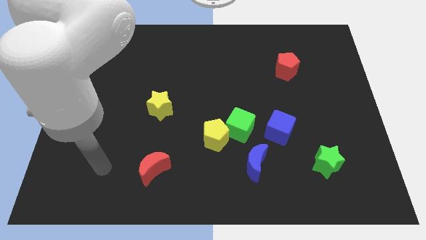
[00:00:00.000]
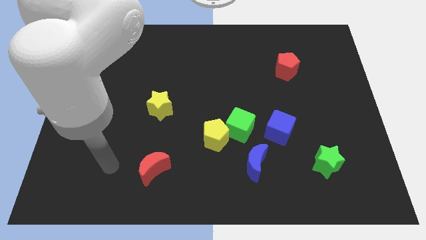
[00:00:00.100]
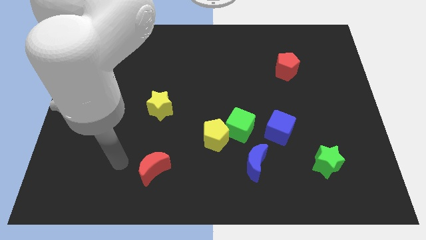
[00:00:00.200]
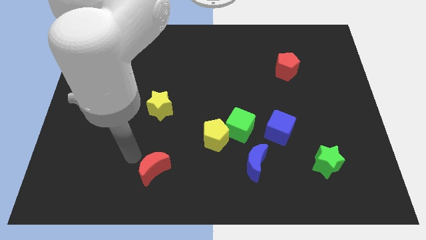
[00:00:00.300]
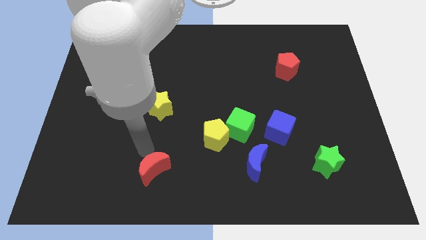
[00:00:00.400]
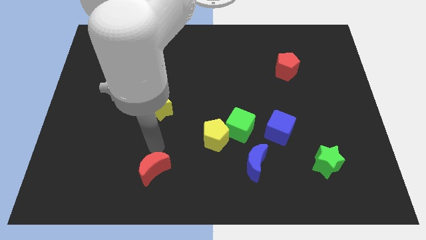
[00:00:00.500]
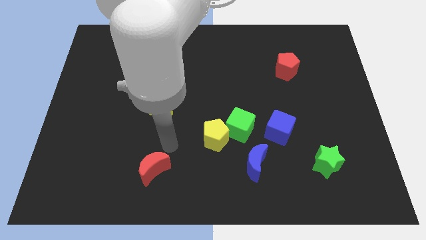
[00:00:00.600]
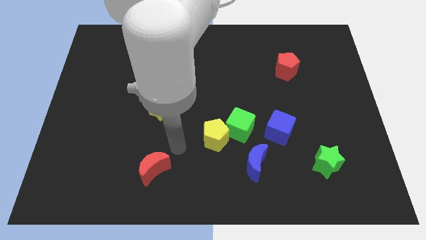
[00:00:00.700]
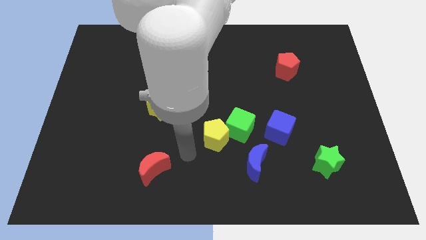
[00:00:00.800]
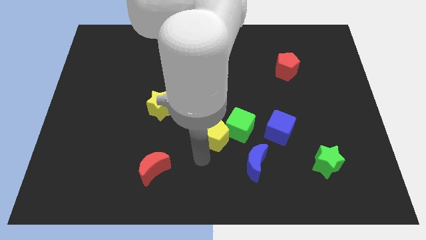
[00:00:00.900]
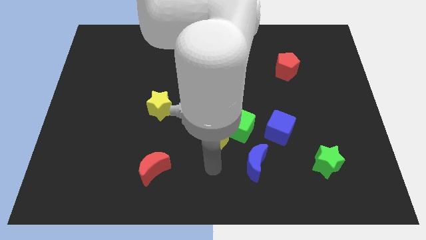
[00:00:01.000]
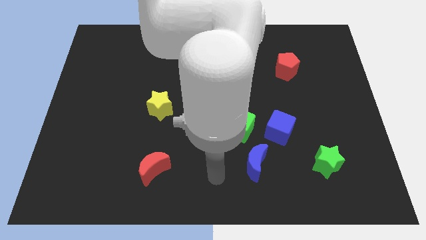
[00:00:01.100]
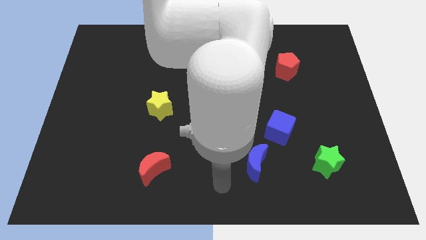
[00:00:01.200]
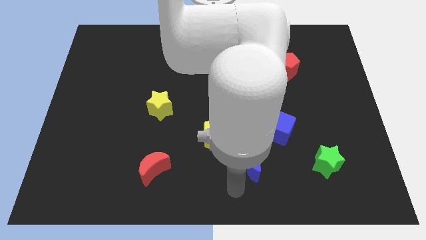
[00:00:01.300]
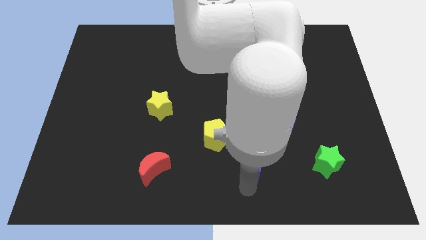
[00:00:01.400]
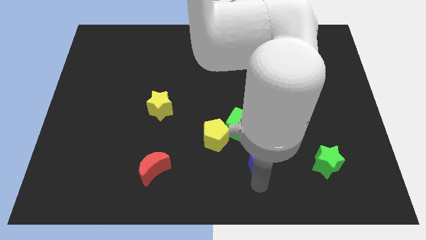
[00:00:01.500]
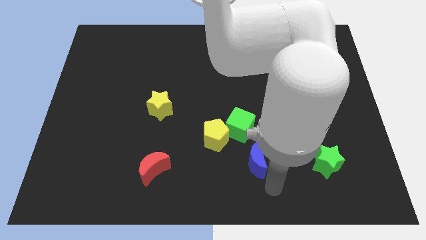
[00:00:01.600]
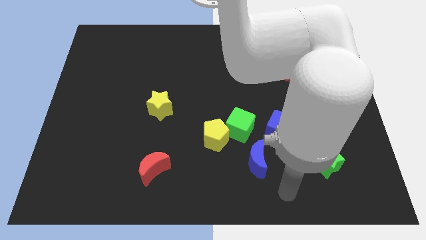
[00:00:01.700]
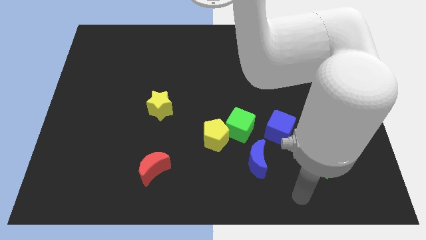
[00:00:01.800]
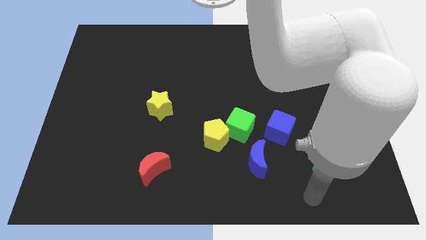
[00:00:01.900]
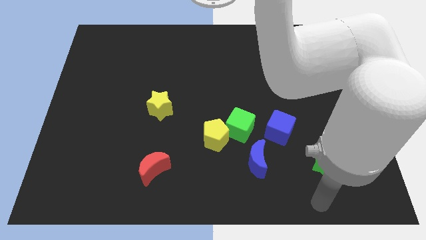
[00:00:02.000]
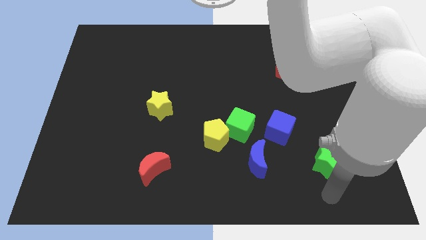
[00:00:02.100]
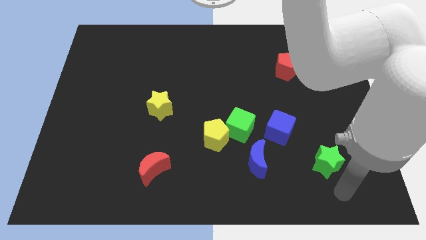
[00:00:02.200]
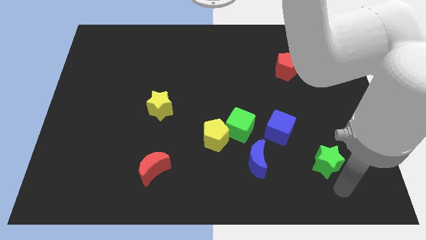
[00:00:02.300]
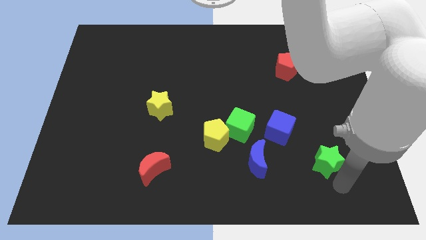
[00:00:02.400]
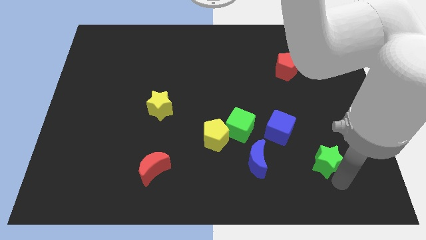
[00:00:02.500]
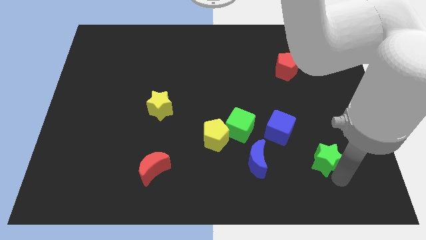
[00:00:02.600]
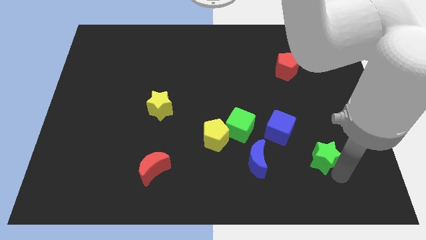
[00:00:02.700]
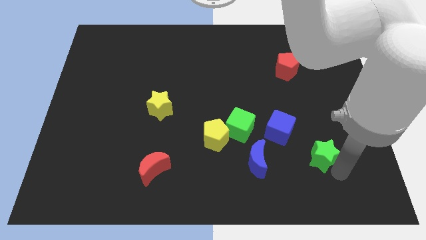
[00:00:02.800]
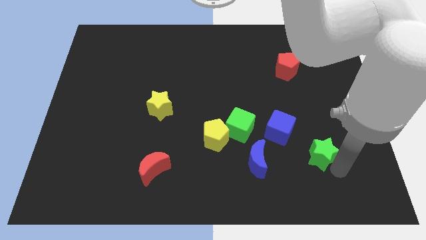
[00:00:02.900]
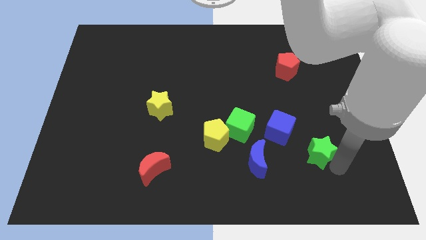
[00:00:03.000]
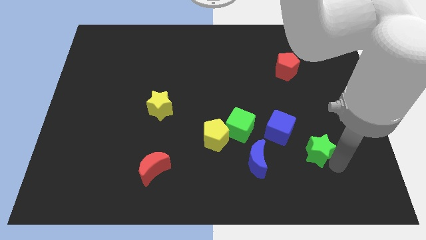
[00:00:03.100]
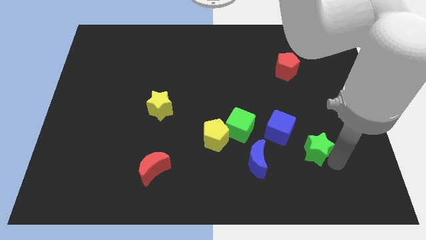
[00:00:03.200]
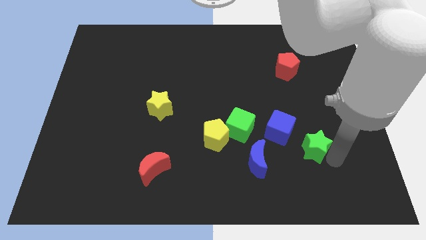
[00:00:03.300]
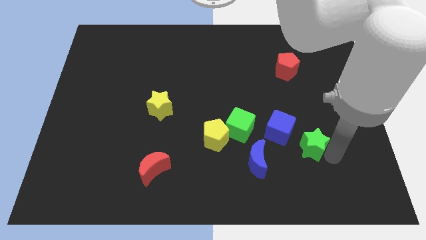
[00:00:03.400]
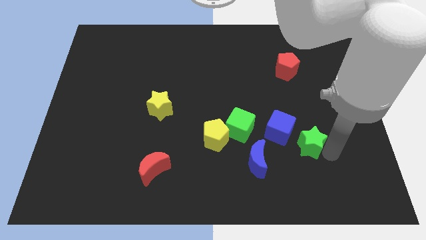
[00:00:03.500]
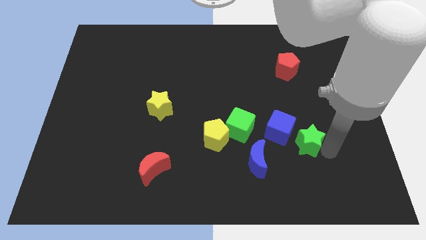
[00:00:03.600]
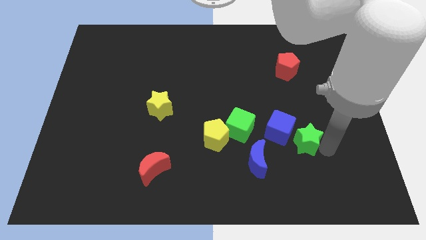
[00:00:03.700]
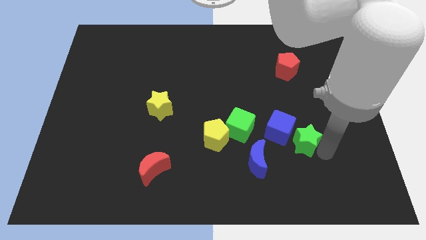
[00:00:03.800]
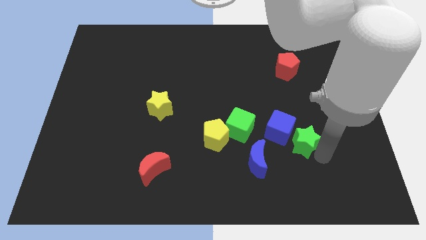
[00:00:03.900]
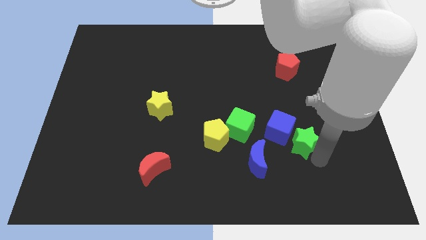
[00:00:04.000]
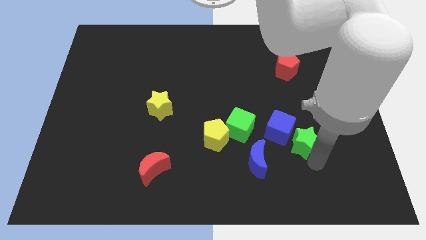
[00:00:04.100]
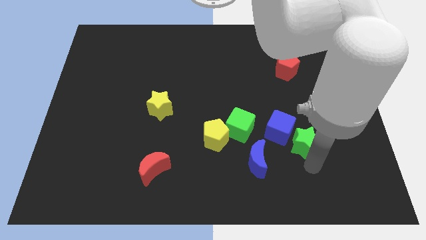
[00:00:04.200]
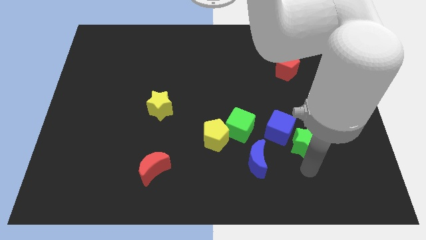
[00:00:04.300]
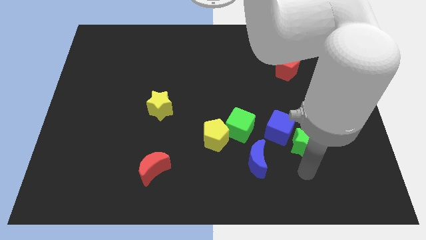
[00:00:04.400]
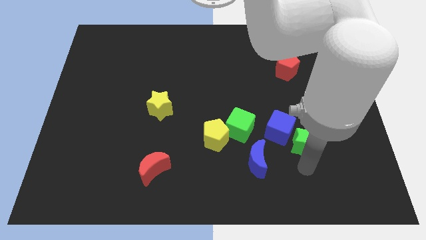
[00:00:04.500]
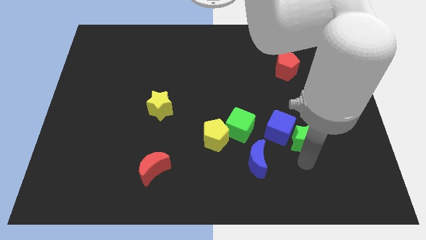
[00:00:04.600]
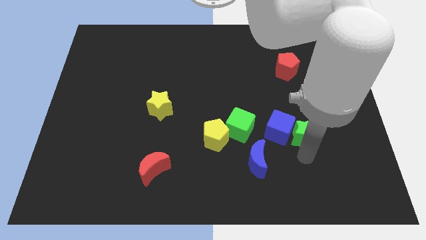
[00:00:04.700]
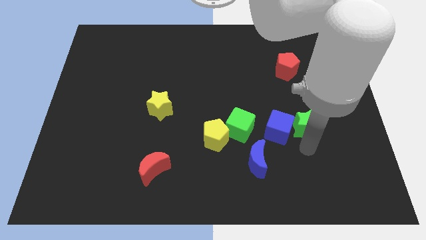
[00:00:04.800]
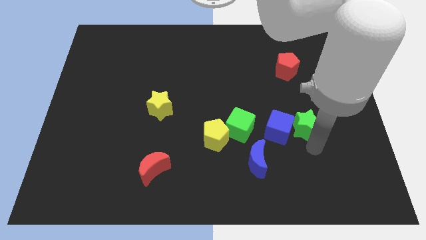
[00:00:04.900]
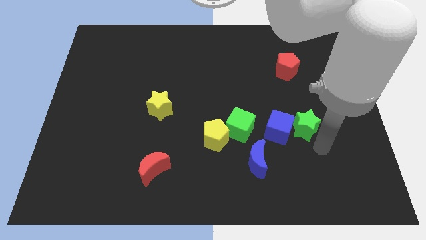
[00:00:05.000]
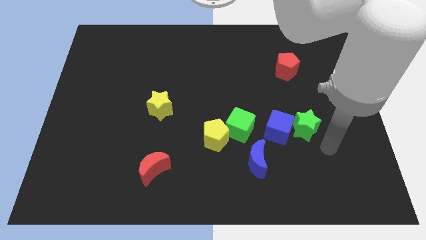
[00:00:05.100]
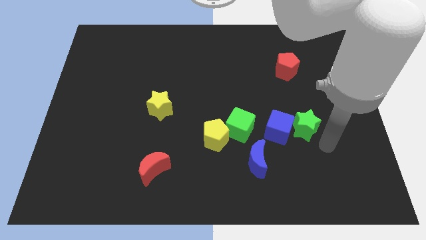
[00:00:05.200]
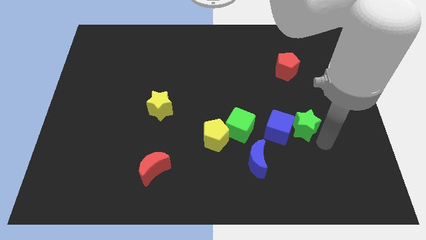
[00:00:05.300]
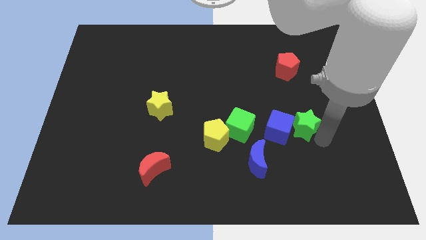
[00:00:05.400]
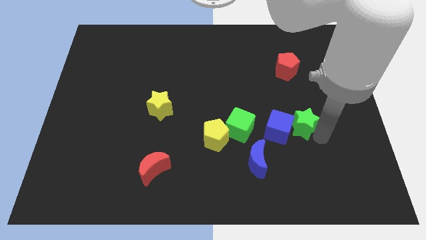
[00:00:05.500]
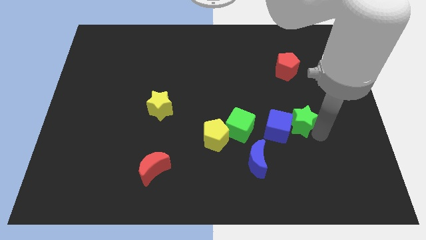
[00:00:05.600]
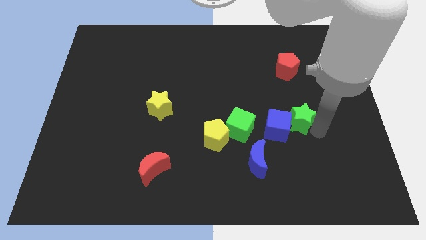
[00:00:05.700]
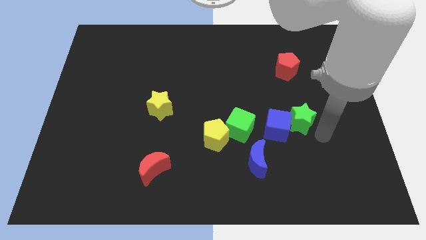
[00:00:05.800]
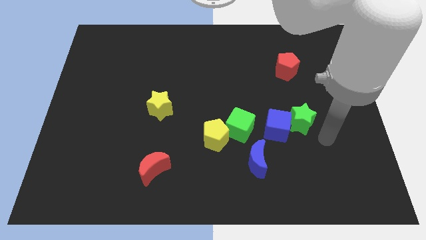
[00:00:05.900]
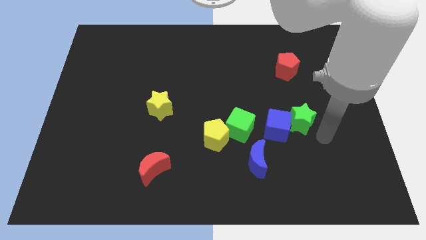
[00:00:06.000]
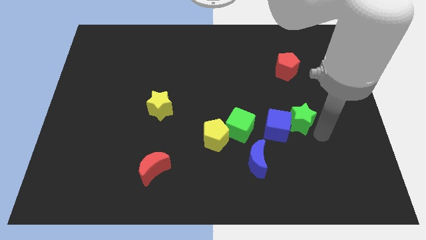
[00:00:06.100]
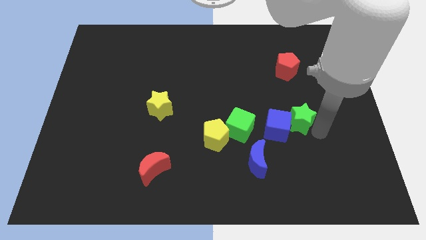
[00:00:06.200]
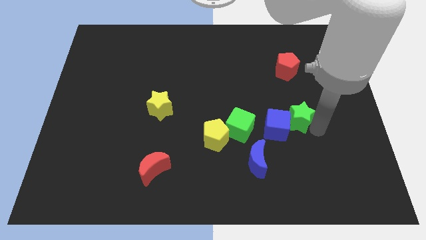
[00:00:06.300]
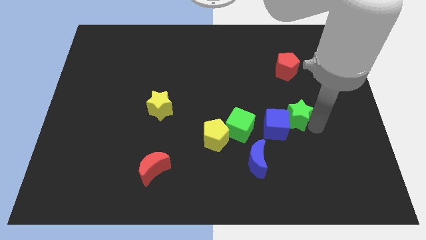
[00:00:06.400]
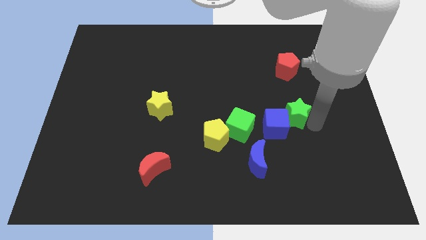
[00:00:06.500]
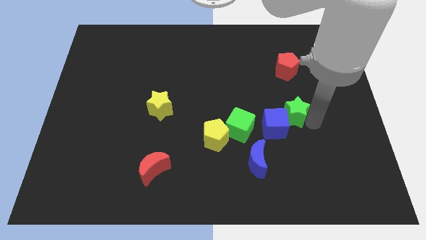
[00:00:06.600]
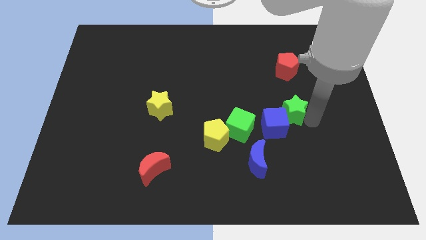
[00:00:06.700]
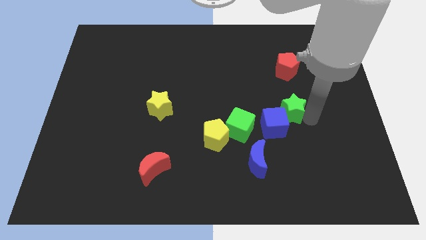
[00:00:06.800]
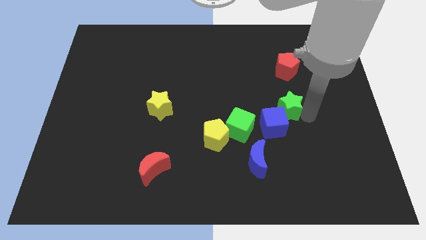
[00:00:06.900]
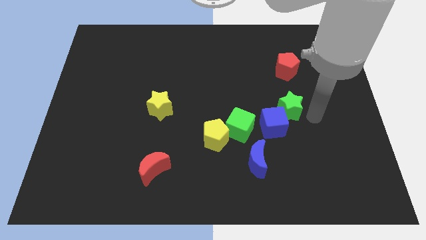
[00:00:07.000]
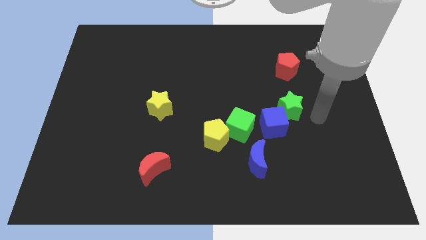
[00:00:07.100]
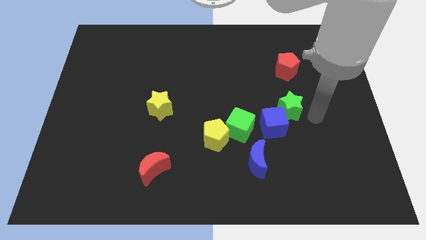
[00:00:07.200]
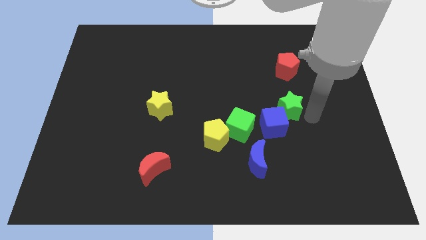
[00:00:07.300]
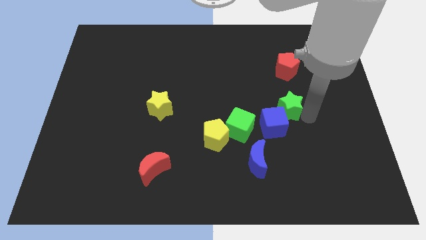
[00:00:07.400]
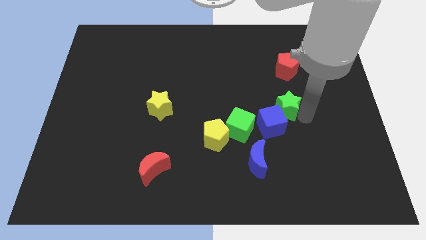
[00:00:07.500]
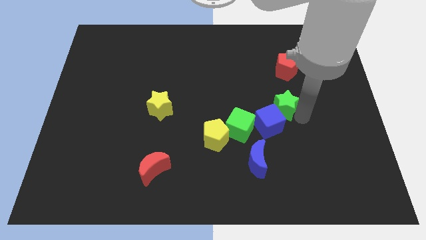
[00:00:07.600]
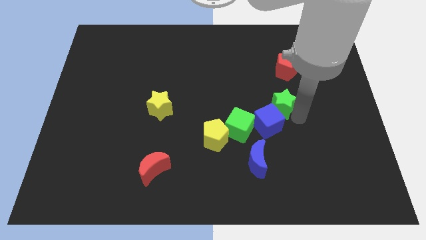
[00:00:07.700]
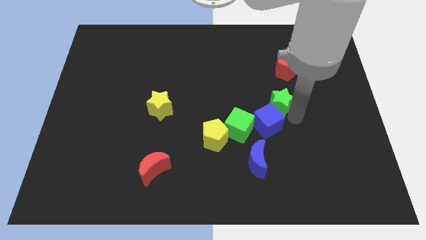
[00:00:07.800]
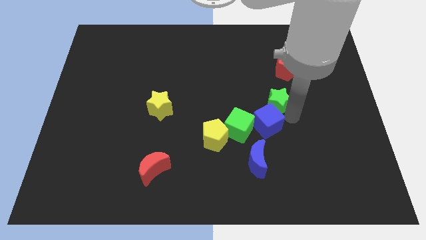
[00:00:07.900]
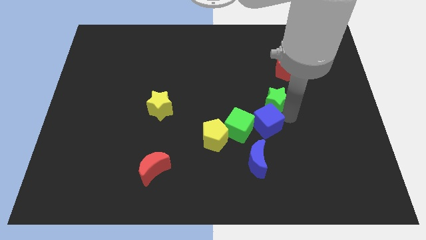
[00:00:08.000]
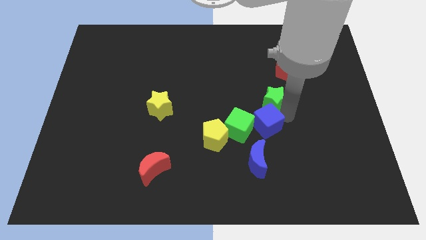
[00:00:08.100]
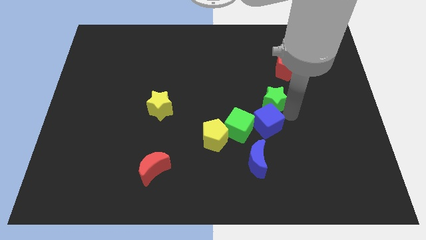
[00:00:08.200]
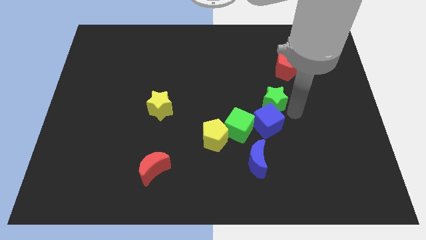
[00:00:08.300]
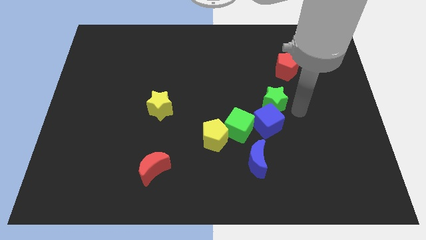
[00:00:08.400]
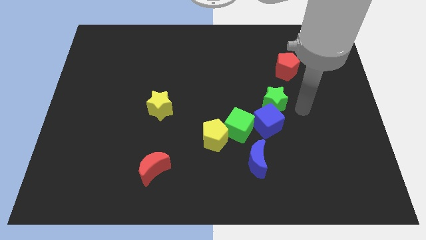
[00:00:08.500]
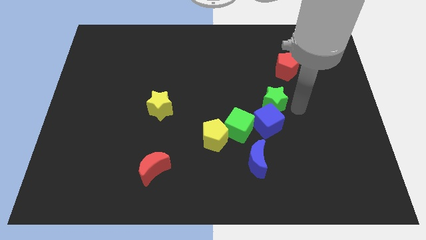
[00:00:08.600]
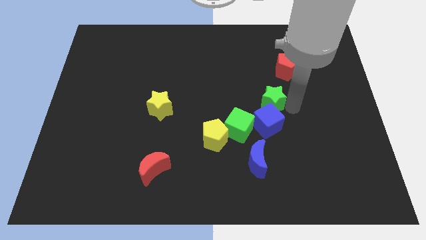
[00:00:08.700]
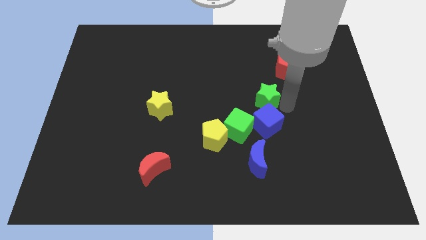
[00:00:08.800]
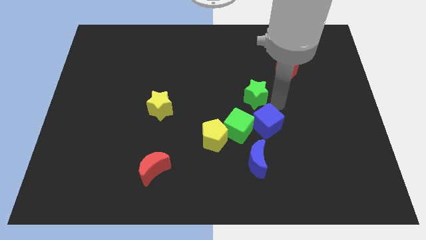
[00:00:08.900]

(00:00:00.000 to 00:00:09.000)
move the green star upwards and then left
